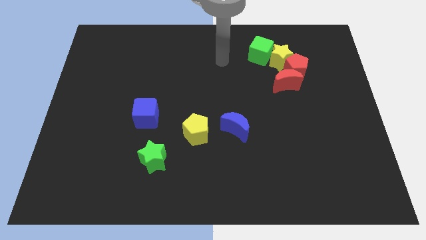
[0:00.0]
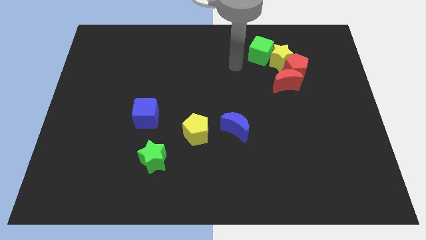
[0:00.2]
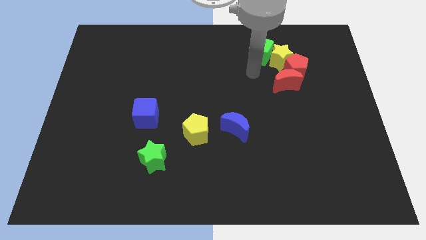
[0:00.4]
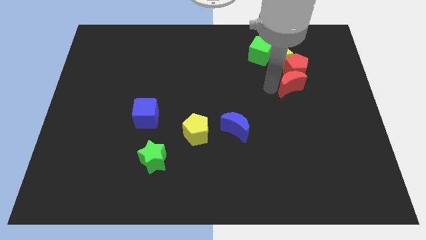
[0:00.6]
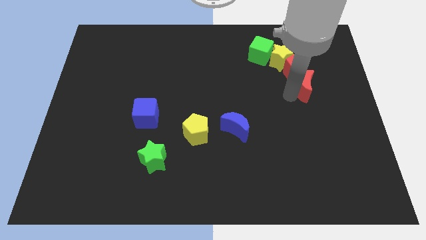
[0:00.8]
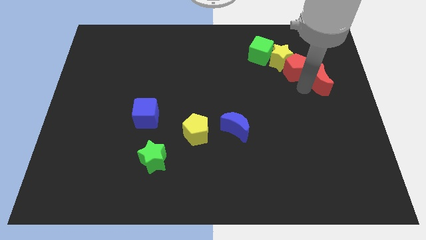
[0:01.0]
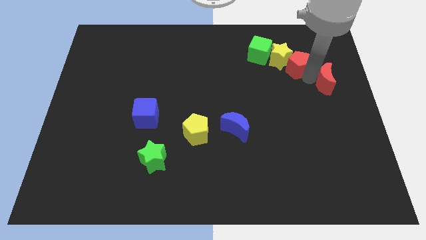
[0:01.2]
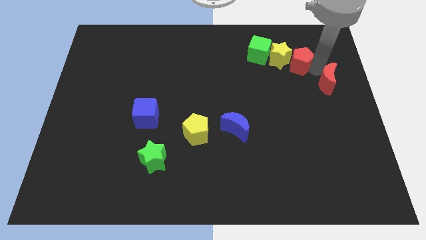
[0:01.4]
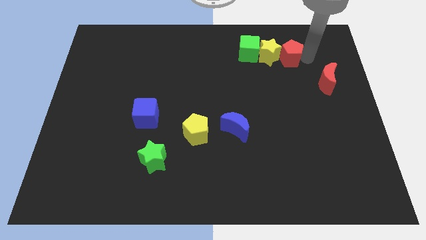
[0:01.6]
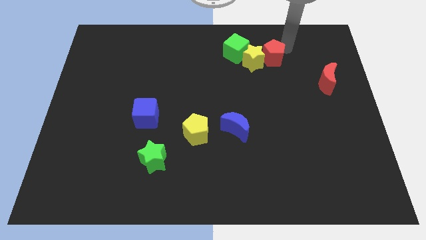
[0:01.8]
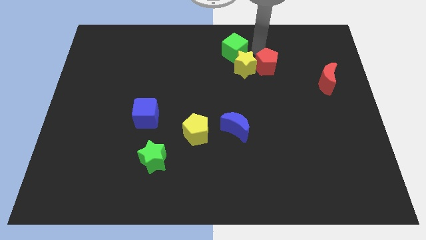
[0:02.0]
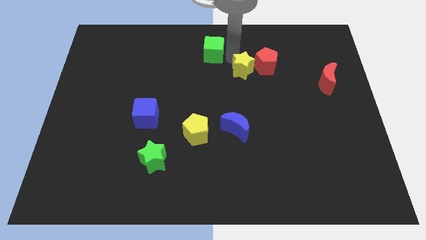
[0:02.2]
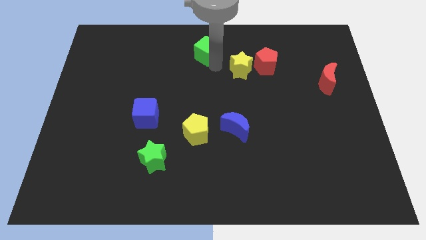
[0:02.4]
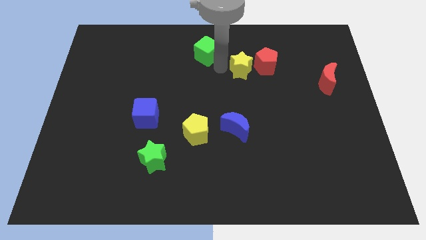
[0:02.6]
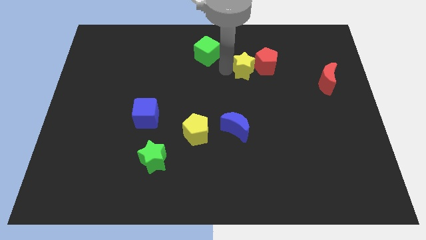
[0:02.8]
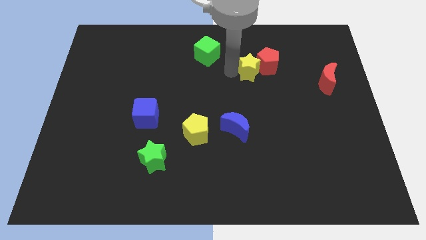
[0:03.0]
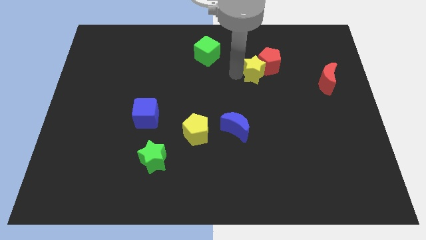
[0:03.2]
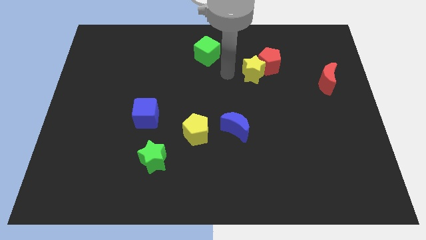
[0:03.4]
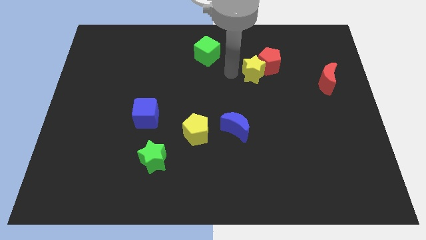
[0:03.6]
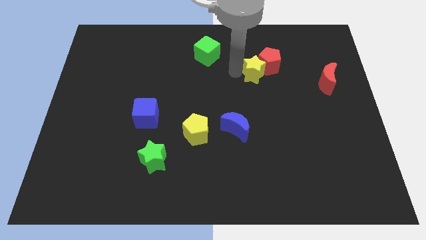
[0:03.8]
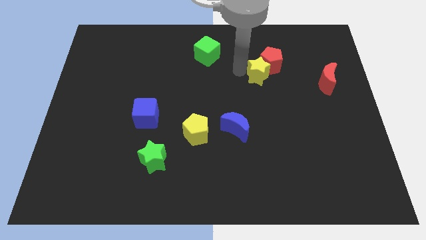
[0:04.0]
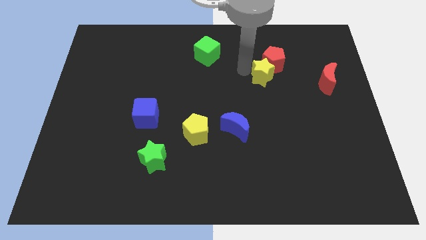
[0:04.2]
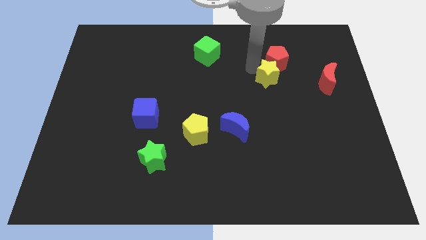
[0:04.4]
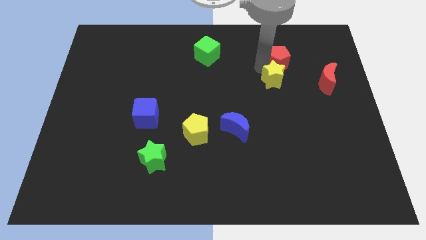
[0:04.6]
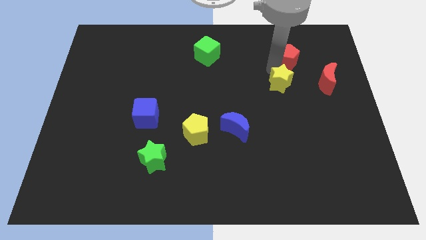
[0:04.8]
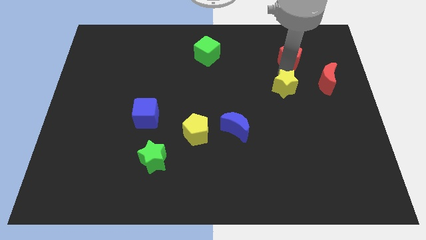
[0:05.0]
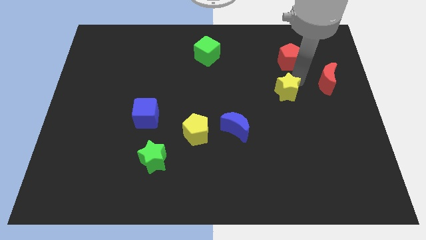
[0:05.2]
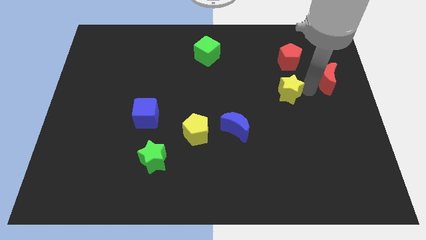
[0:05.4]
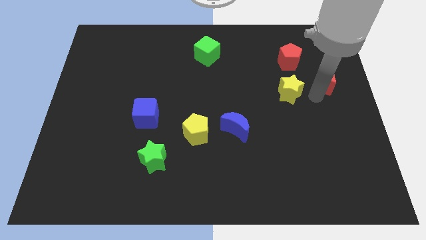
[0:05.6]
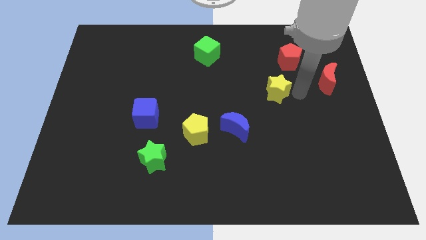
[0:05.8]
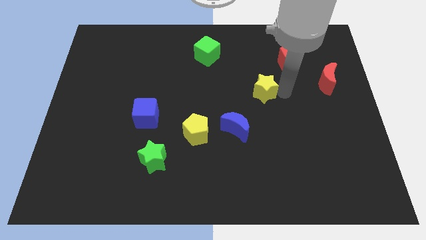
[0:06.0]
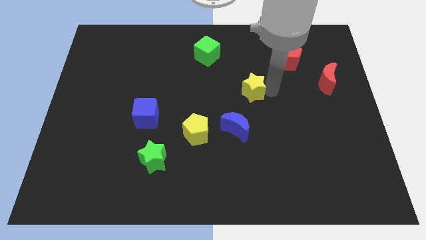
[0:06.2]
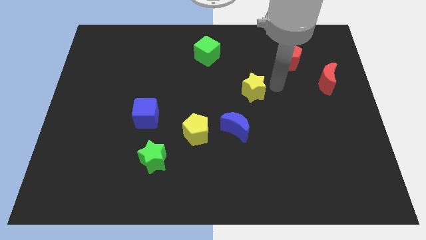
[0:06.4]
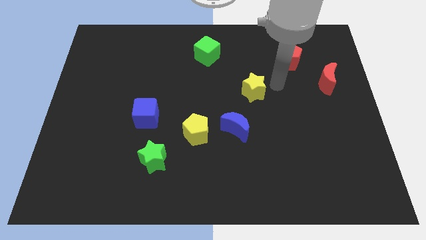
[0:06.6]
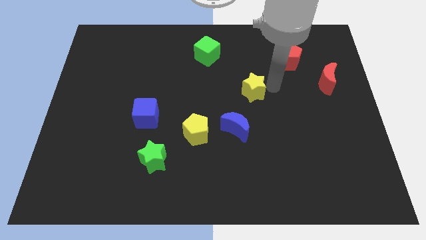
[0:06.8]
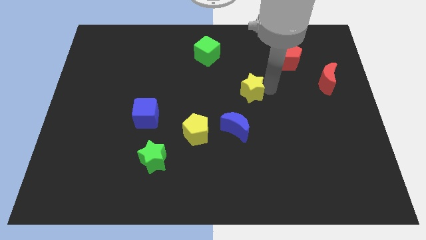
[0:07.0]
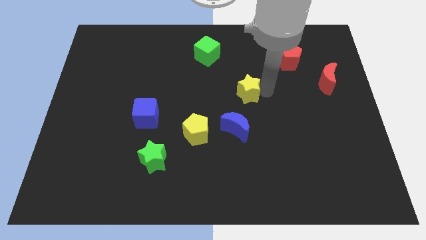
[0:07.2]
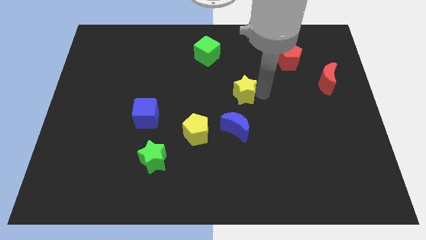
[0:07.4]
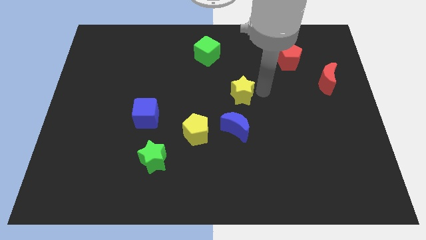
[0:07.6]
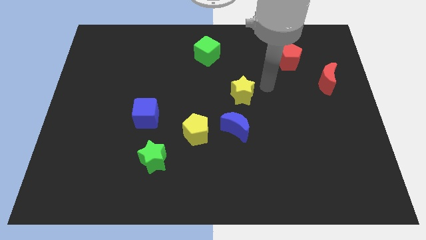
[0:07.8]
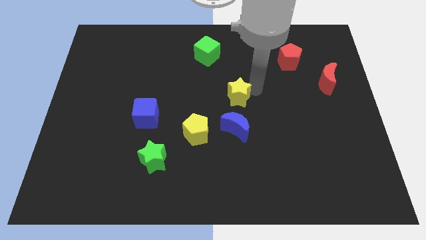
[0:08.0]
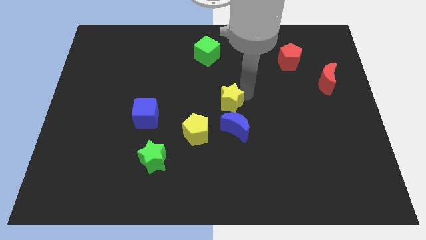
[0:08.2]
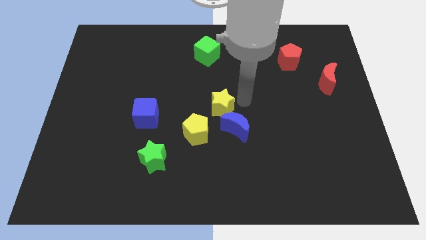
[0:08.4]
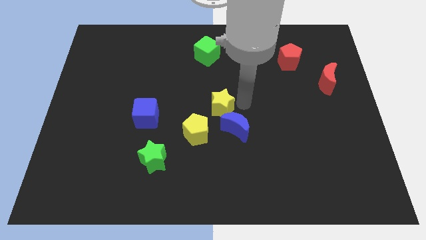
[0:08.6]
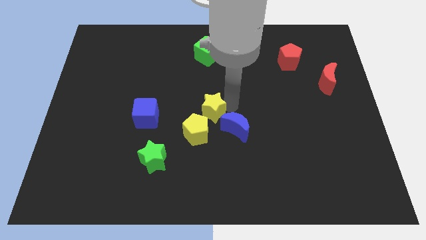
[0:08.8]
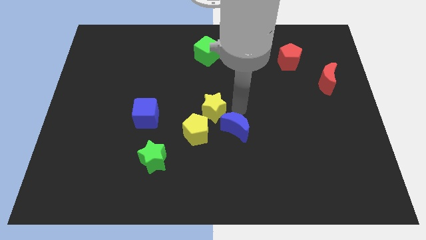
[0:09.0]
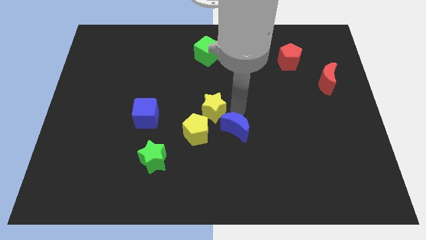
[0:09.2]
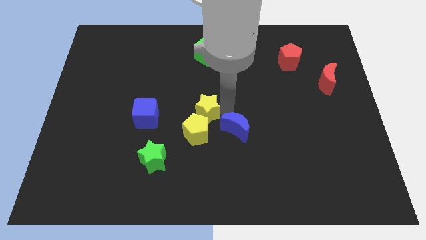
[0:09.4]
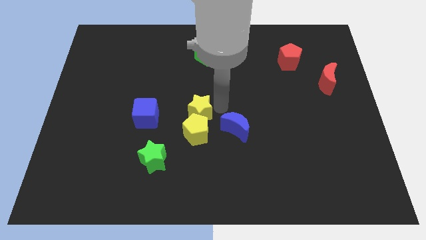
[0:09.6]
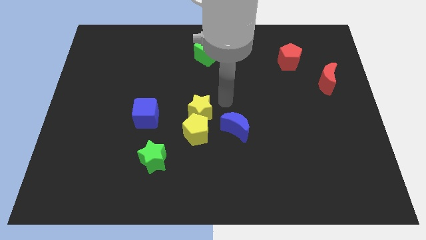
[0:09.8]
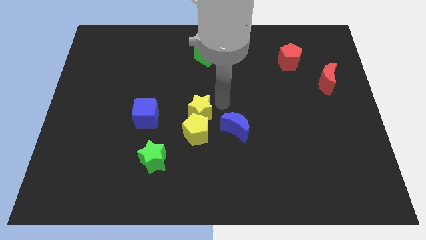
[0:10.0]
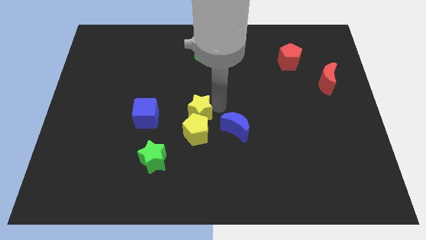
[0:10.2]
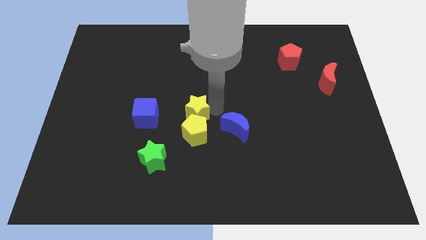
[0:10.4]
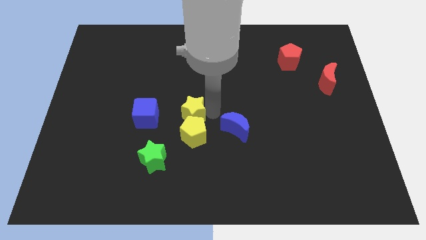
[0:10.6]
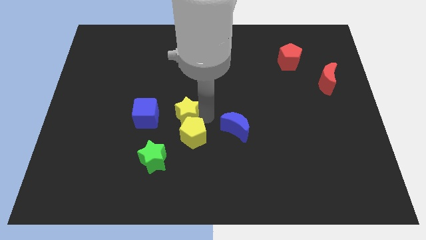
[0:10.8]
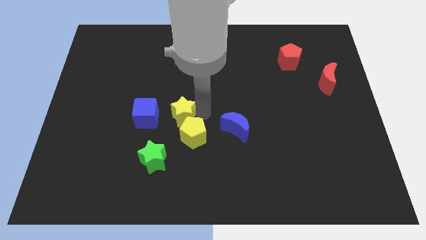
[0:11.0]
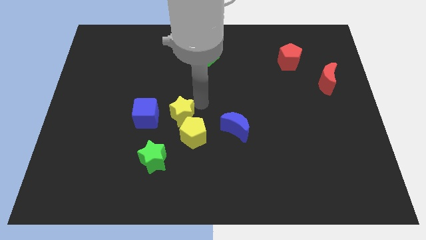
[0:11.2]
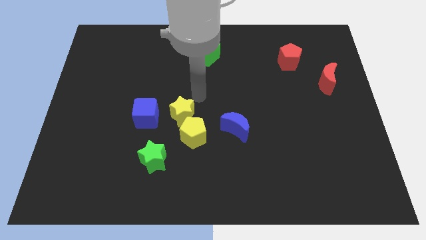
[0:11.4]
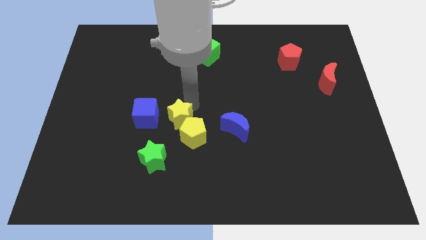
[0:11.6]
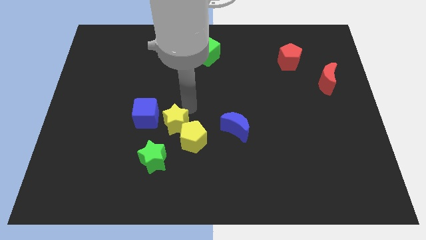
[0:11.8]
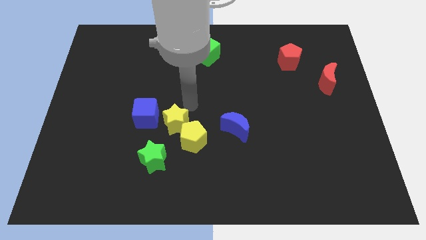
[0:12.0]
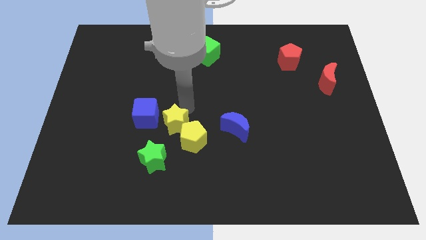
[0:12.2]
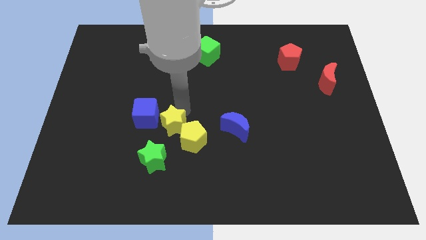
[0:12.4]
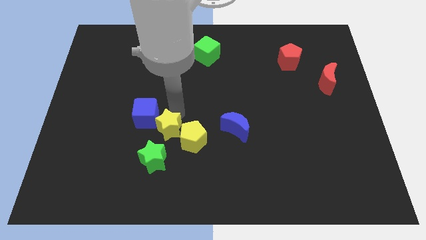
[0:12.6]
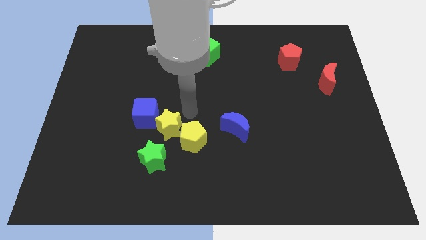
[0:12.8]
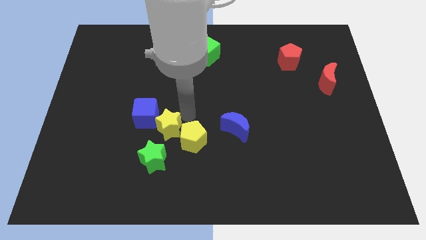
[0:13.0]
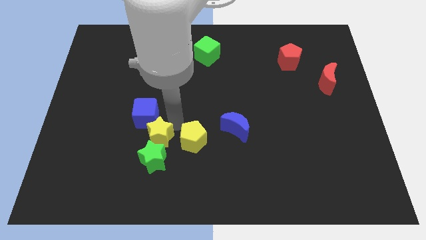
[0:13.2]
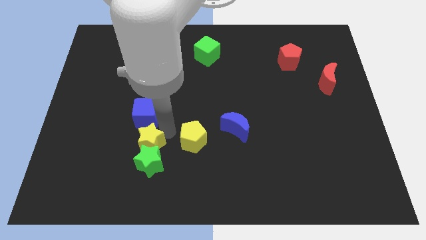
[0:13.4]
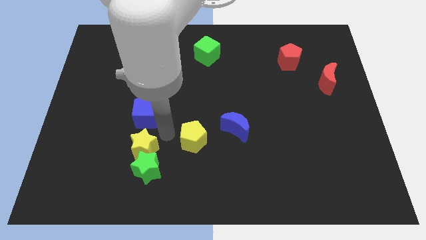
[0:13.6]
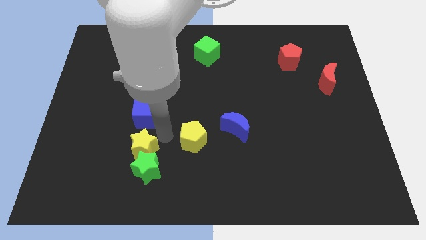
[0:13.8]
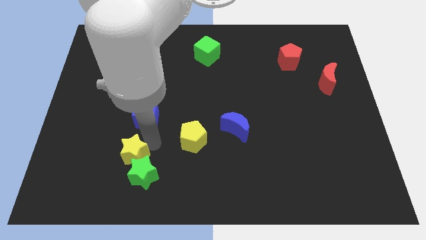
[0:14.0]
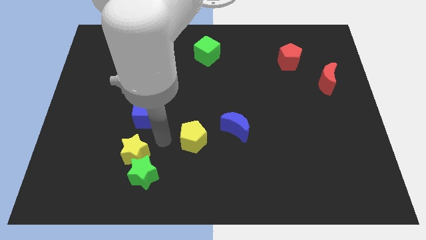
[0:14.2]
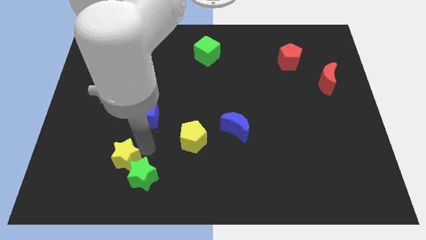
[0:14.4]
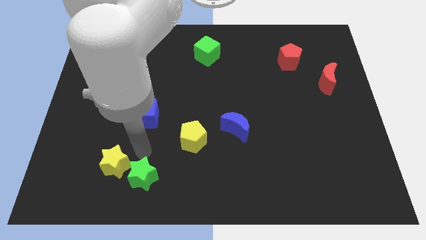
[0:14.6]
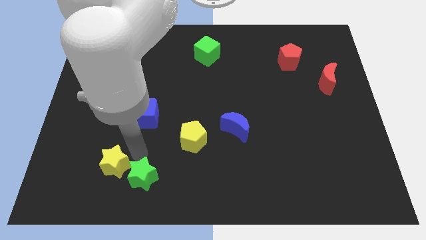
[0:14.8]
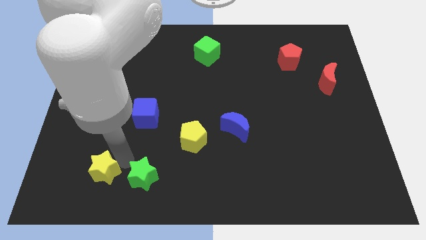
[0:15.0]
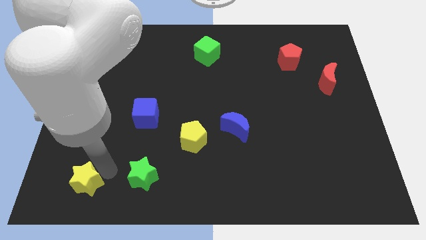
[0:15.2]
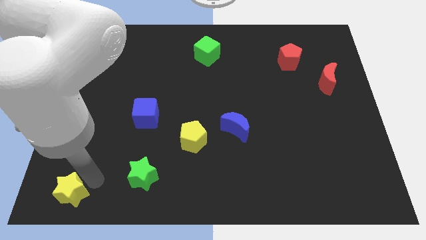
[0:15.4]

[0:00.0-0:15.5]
move the yellow star to the bottom left of the board
